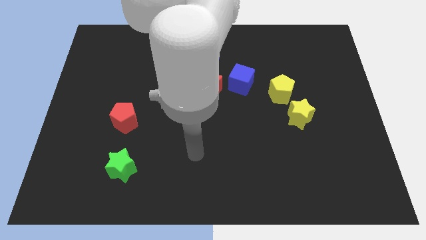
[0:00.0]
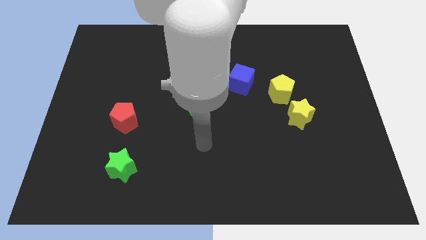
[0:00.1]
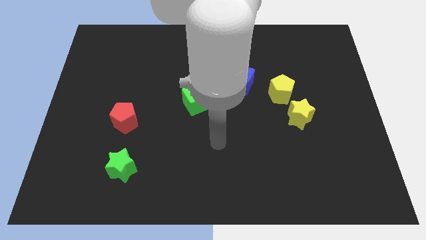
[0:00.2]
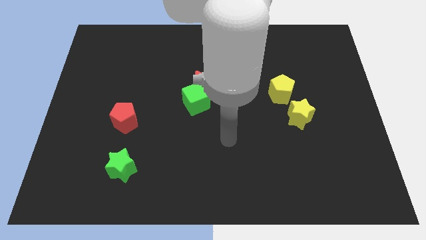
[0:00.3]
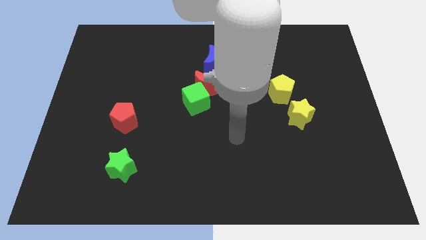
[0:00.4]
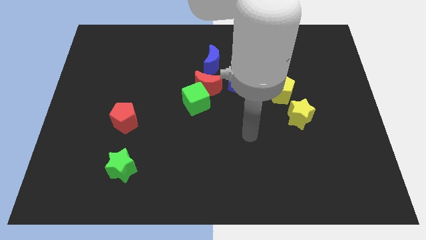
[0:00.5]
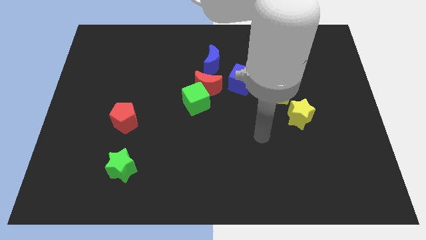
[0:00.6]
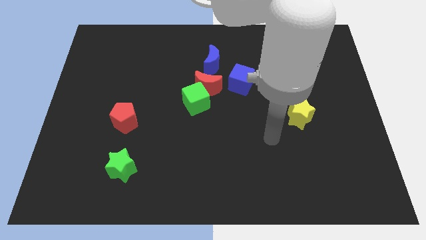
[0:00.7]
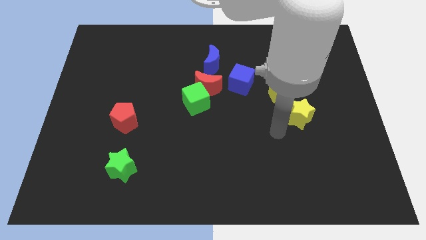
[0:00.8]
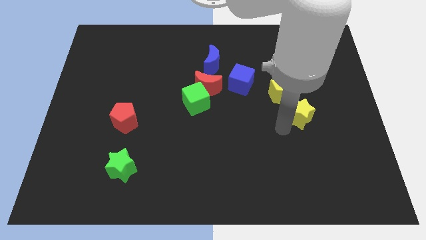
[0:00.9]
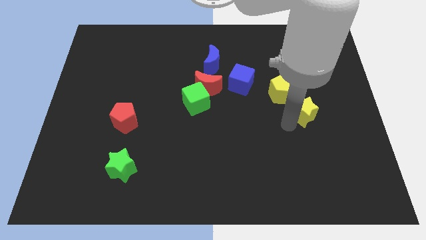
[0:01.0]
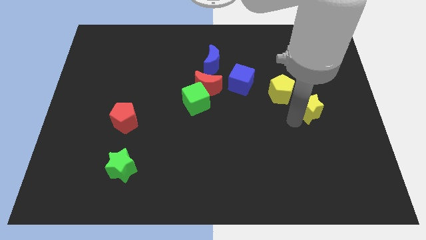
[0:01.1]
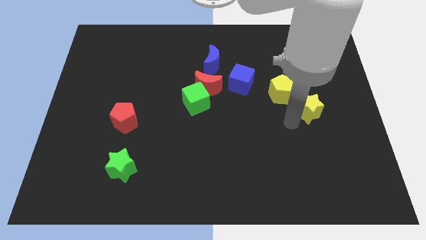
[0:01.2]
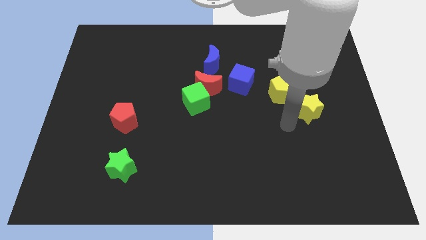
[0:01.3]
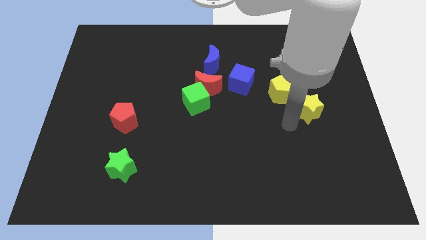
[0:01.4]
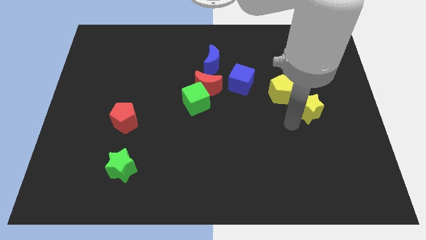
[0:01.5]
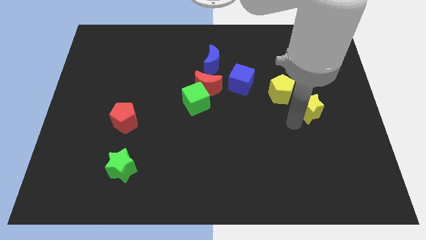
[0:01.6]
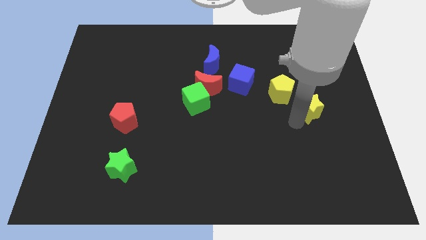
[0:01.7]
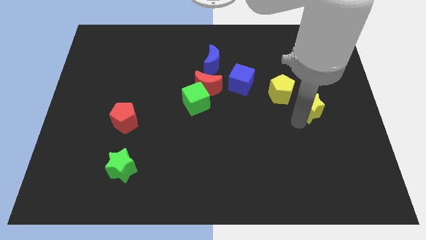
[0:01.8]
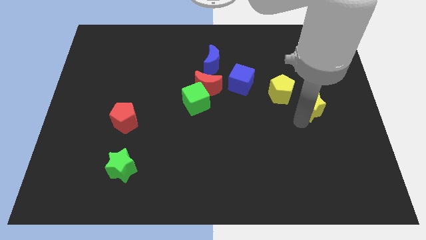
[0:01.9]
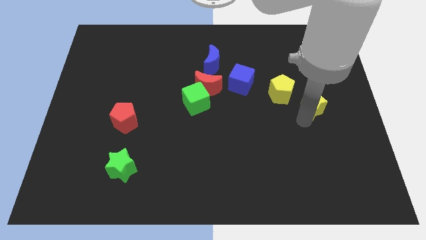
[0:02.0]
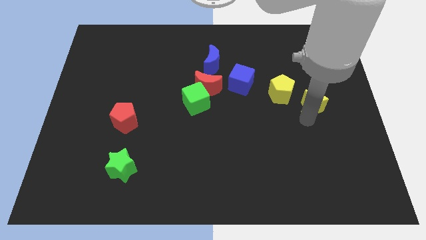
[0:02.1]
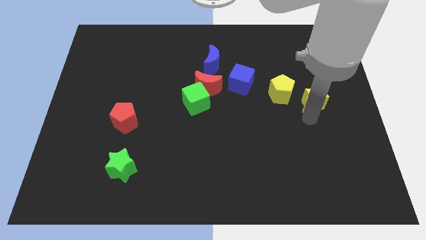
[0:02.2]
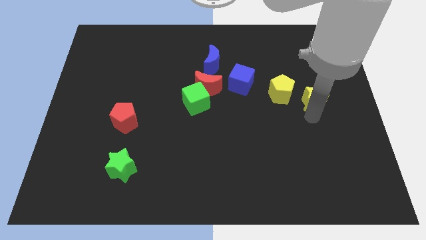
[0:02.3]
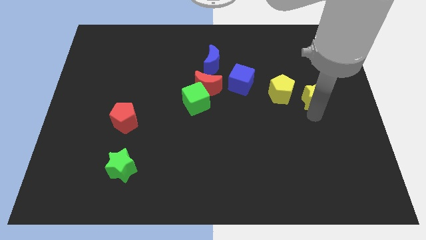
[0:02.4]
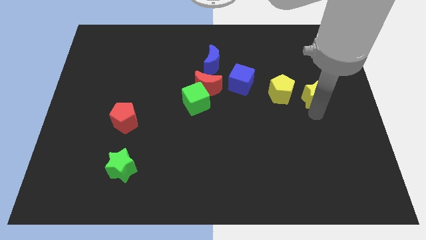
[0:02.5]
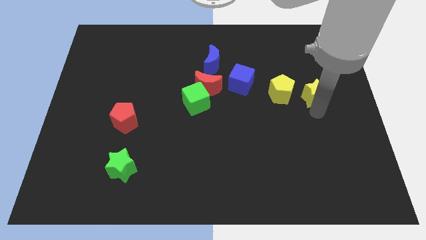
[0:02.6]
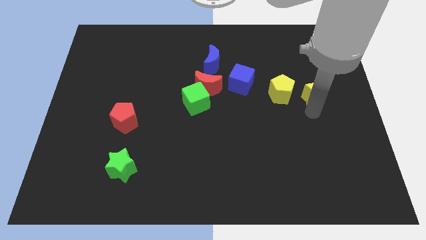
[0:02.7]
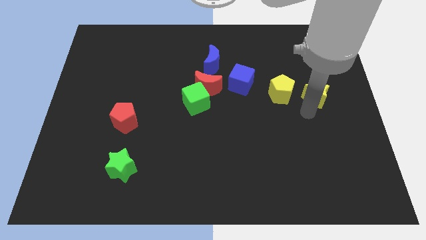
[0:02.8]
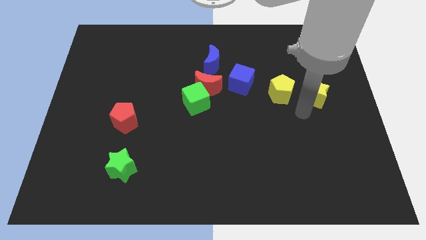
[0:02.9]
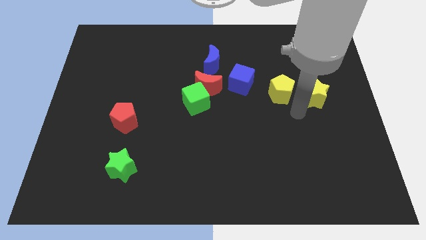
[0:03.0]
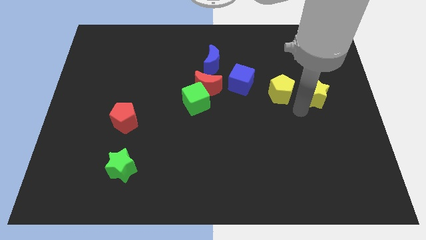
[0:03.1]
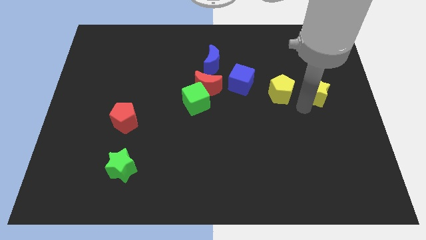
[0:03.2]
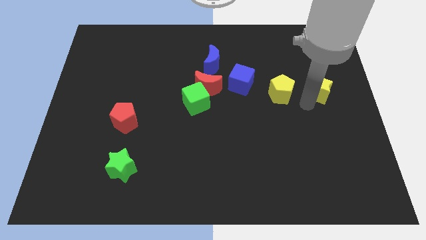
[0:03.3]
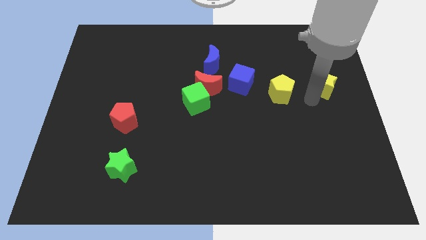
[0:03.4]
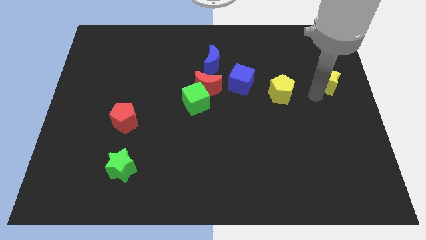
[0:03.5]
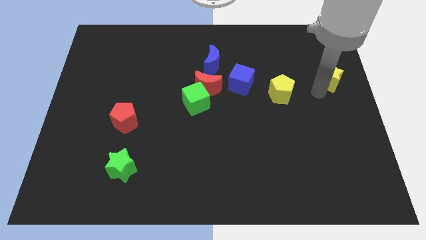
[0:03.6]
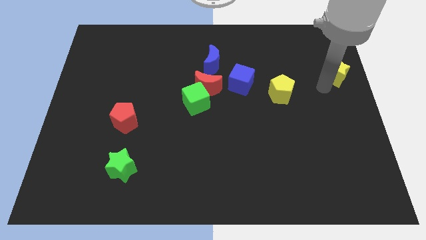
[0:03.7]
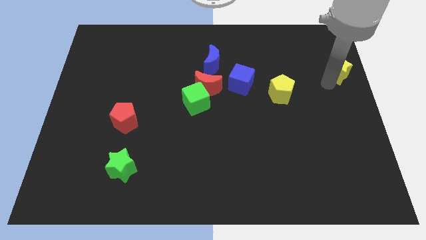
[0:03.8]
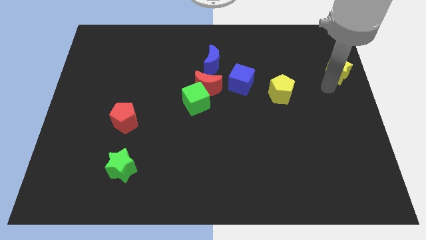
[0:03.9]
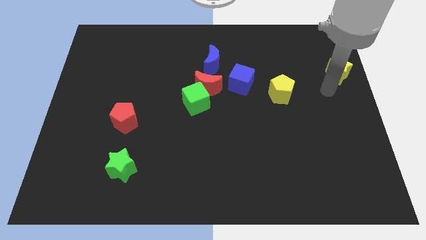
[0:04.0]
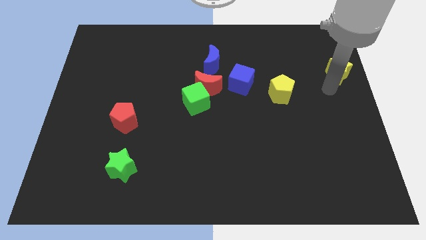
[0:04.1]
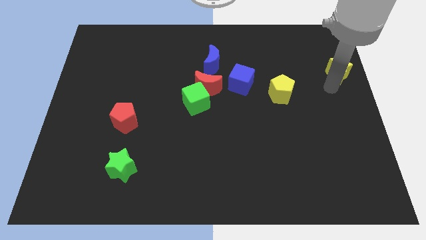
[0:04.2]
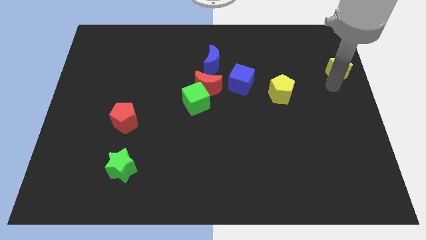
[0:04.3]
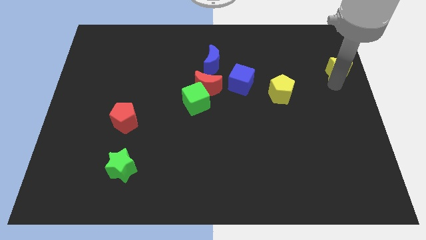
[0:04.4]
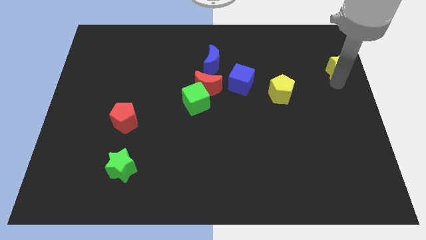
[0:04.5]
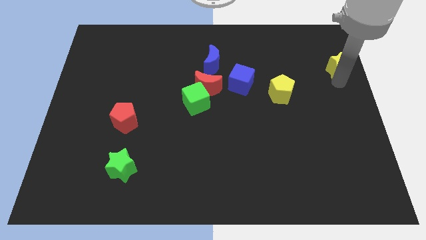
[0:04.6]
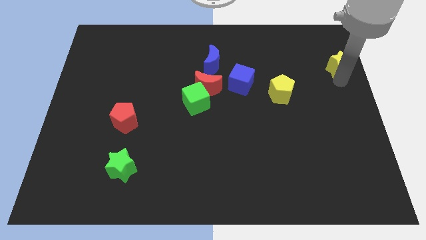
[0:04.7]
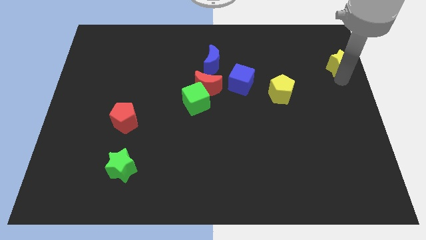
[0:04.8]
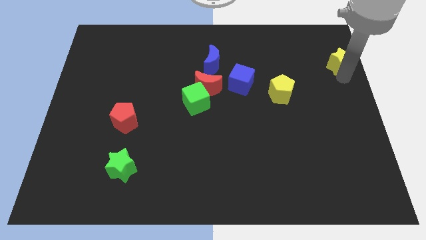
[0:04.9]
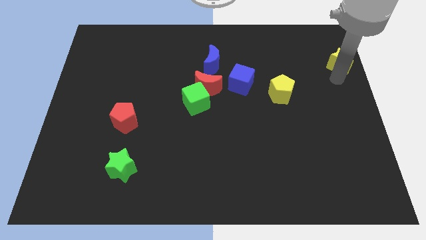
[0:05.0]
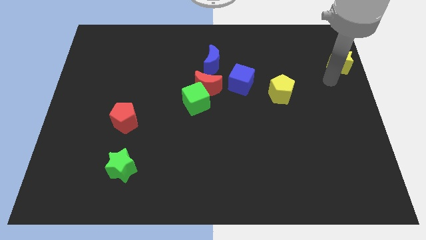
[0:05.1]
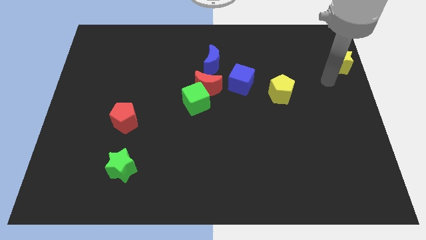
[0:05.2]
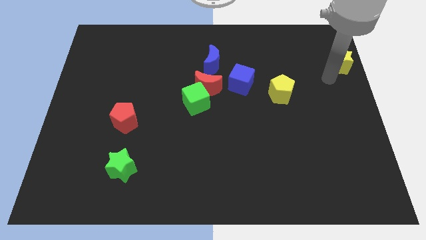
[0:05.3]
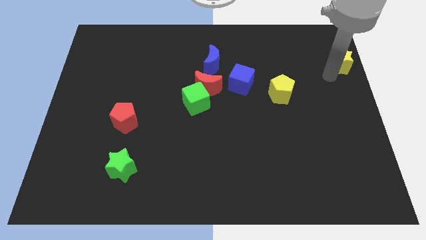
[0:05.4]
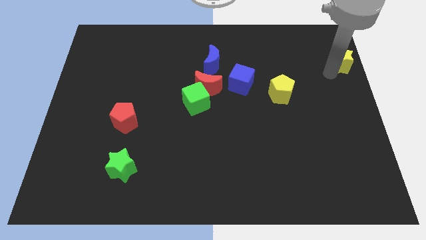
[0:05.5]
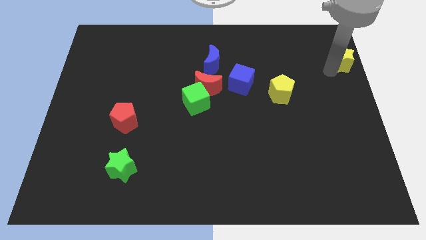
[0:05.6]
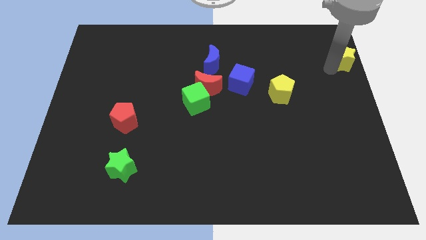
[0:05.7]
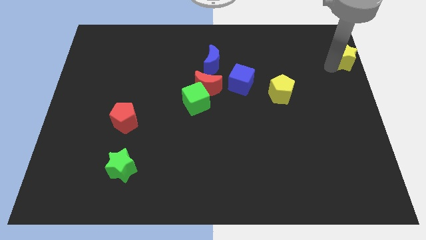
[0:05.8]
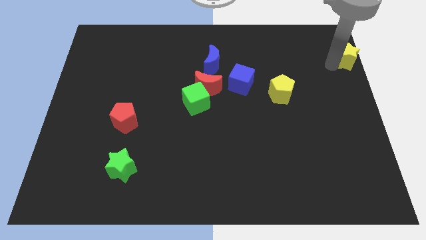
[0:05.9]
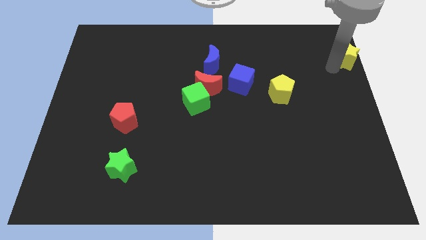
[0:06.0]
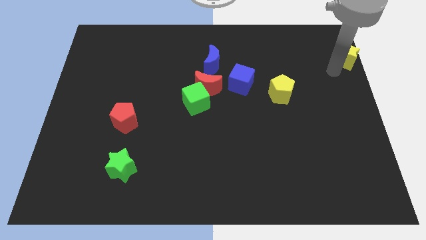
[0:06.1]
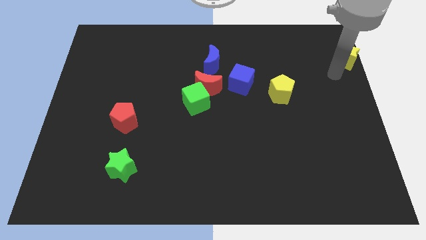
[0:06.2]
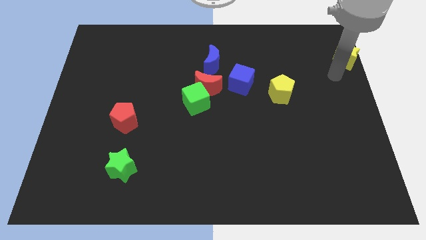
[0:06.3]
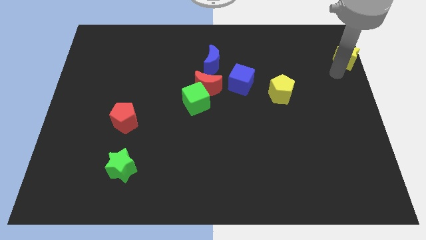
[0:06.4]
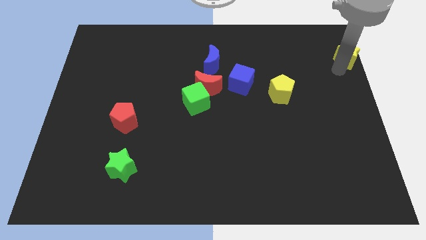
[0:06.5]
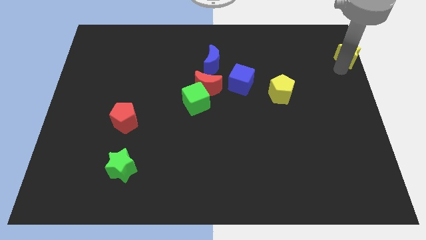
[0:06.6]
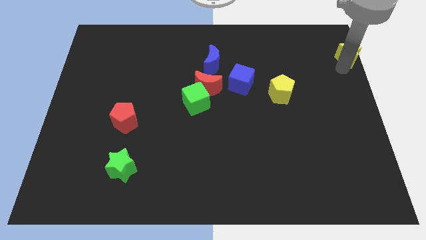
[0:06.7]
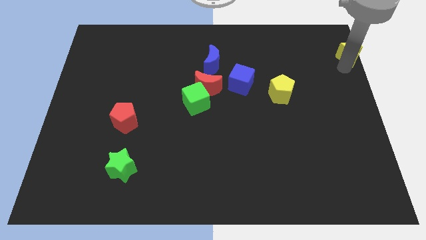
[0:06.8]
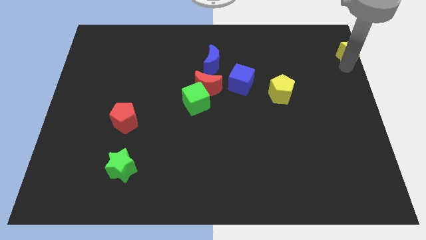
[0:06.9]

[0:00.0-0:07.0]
push the yellow star to the upper right corner
